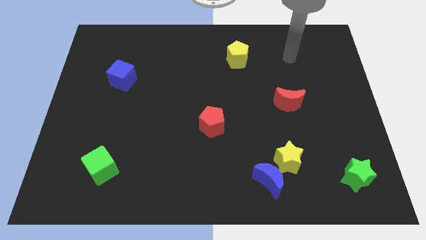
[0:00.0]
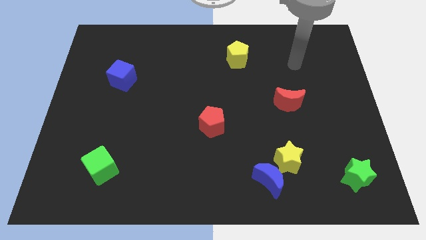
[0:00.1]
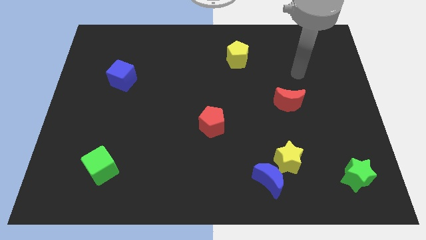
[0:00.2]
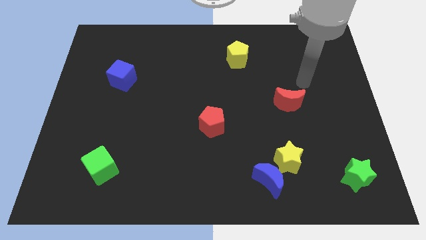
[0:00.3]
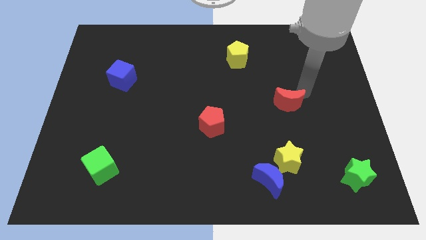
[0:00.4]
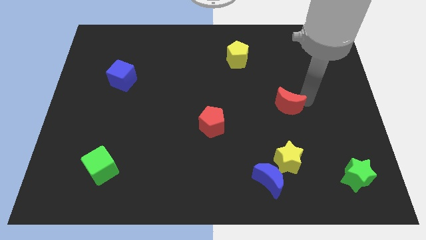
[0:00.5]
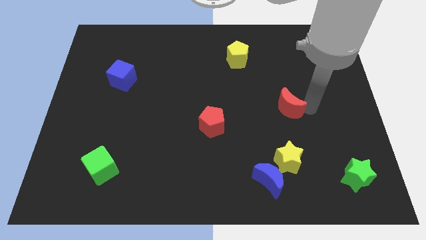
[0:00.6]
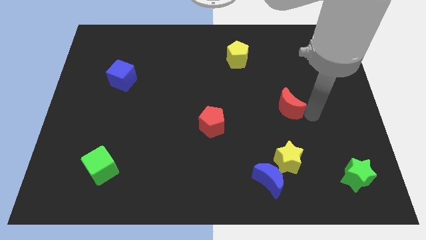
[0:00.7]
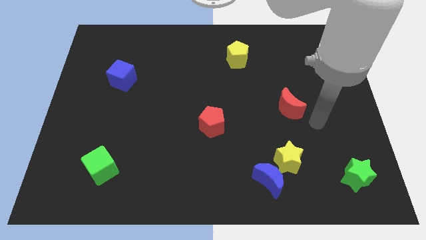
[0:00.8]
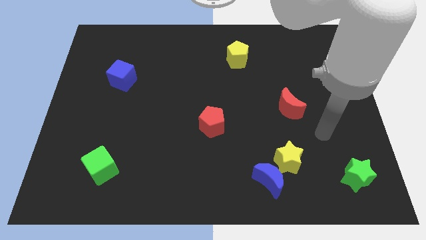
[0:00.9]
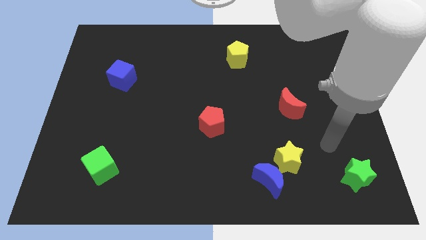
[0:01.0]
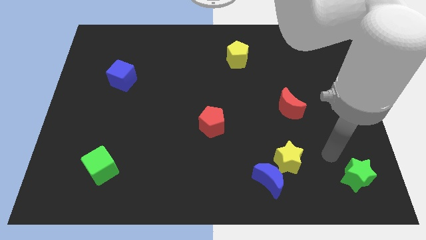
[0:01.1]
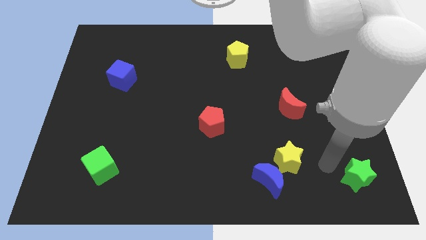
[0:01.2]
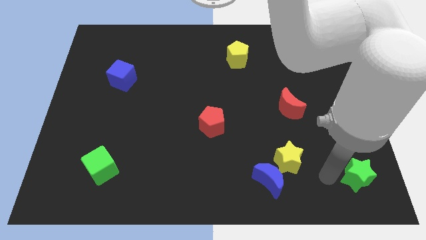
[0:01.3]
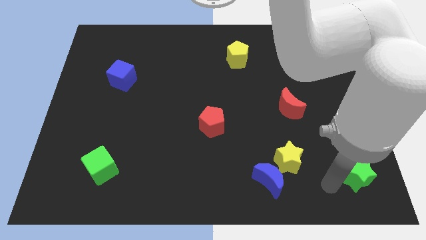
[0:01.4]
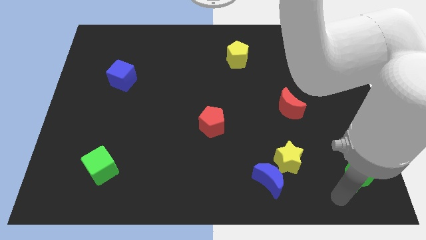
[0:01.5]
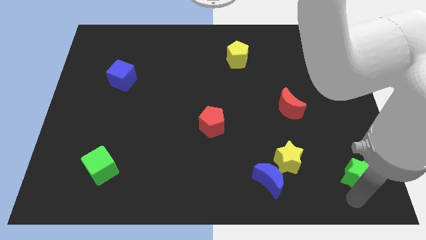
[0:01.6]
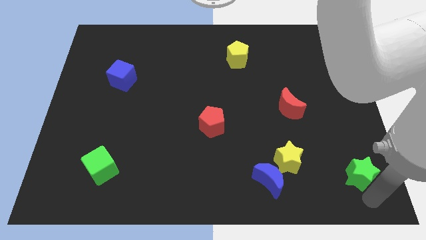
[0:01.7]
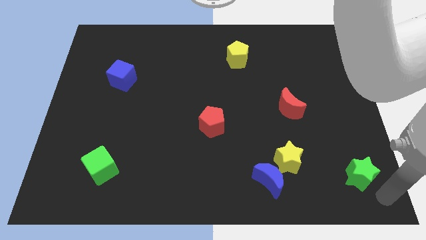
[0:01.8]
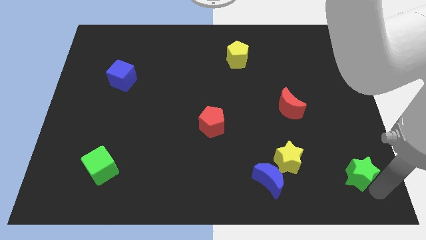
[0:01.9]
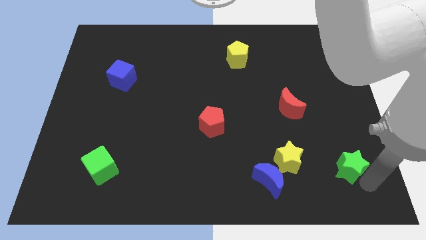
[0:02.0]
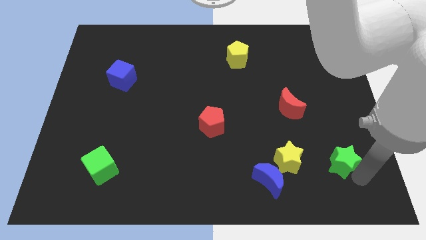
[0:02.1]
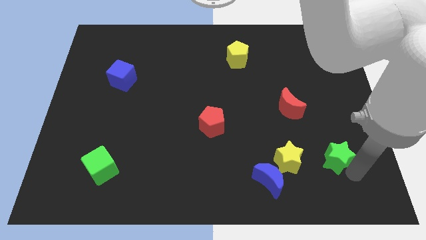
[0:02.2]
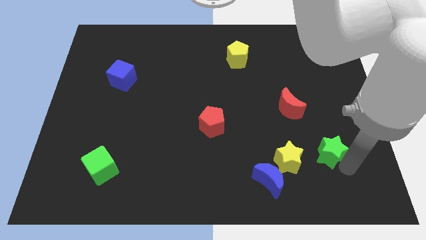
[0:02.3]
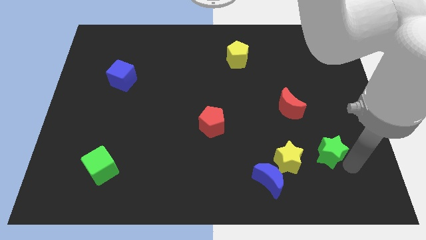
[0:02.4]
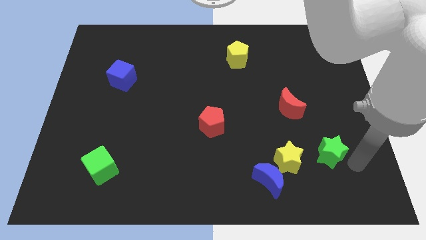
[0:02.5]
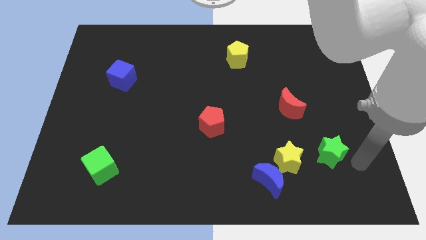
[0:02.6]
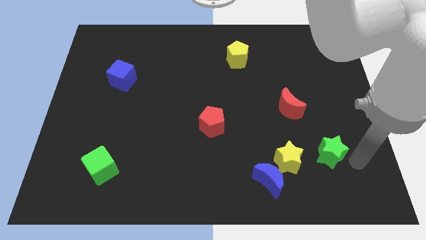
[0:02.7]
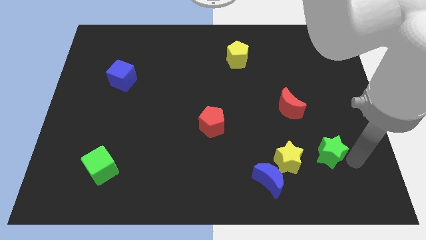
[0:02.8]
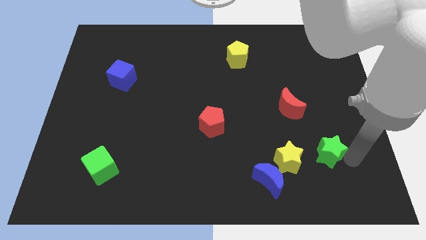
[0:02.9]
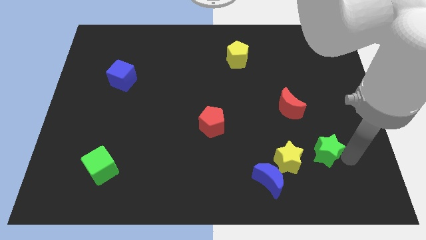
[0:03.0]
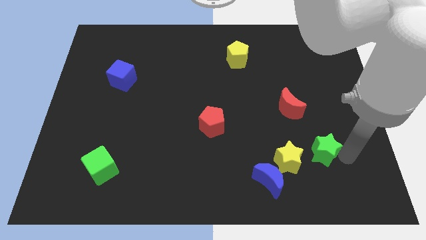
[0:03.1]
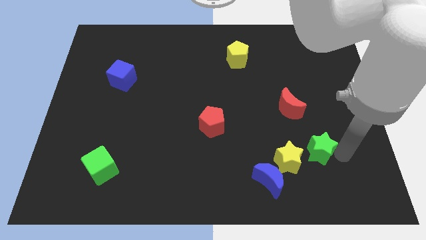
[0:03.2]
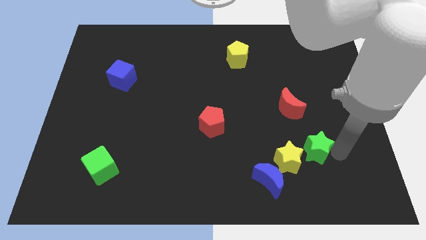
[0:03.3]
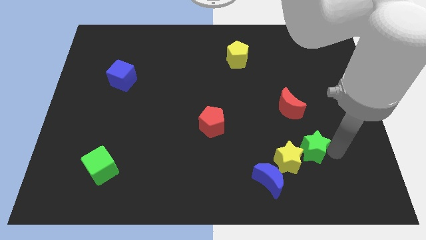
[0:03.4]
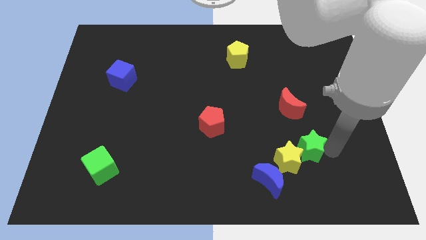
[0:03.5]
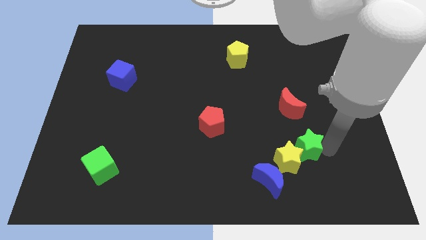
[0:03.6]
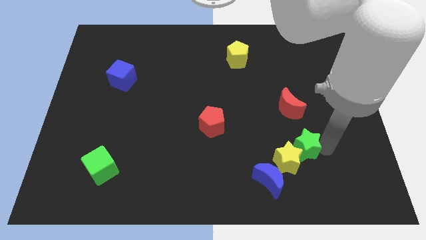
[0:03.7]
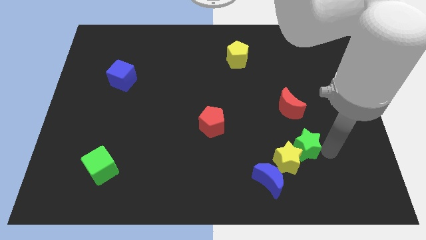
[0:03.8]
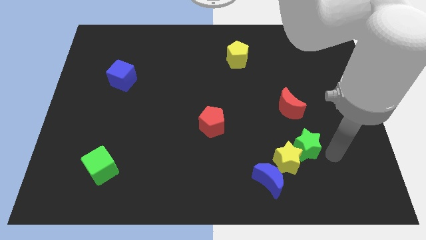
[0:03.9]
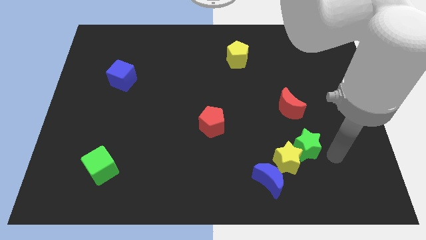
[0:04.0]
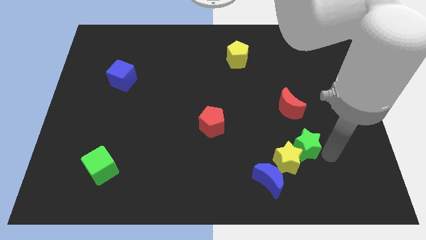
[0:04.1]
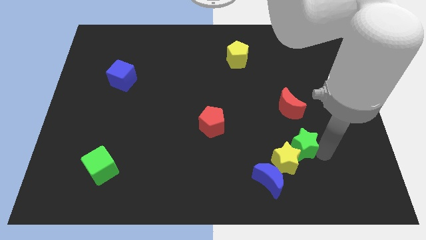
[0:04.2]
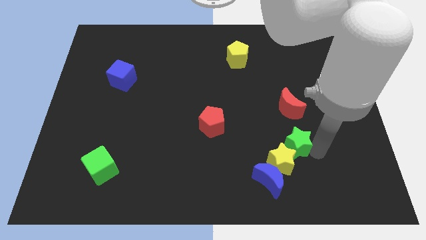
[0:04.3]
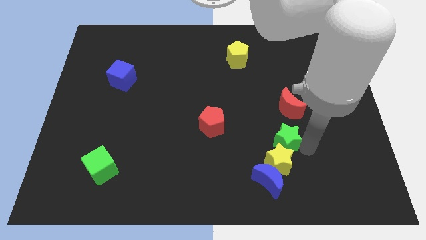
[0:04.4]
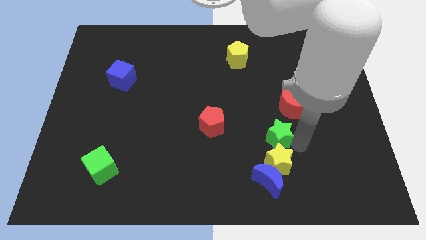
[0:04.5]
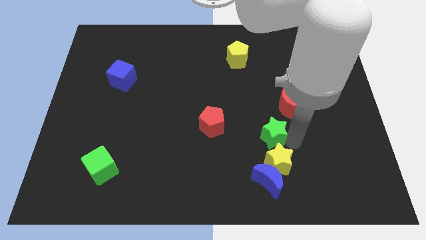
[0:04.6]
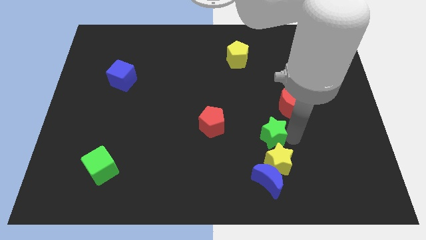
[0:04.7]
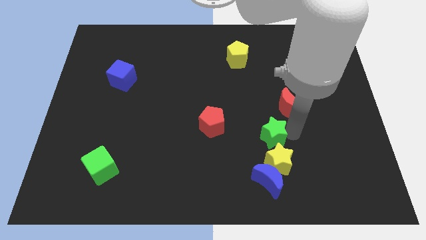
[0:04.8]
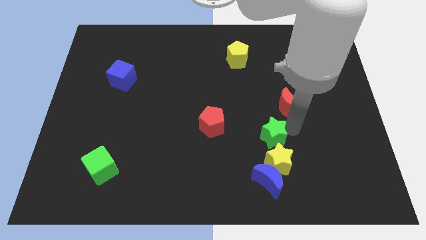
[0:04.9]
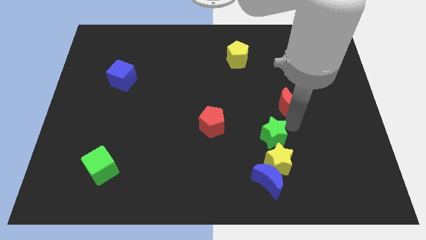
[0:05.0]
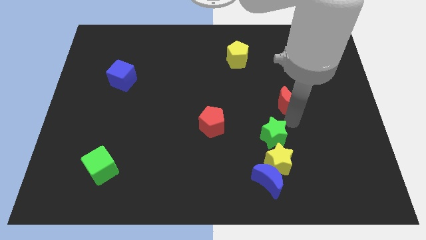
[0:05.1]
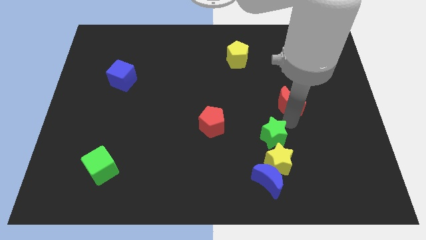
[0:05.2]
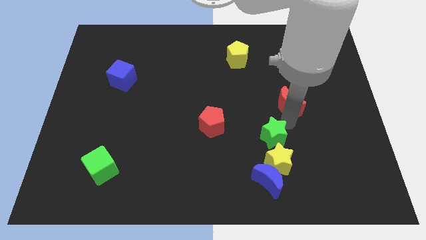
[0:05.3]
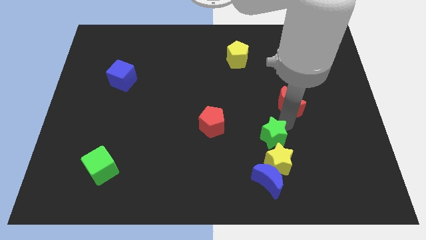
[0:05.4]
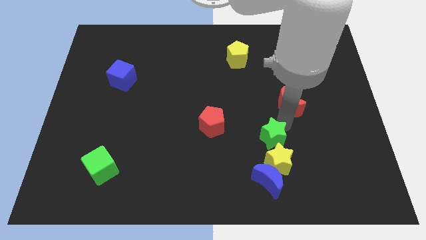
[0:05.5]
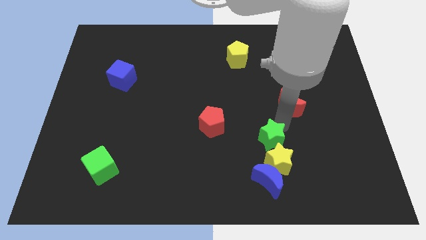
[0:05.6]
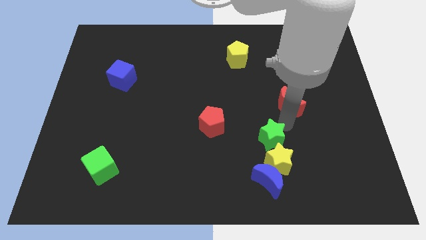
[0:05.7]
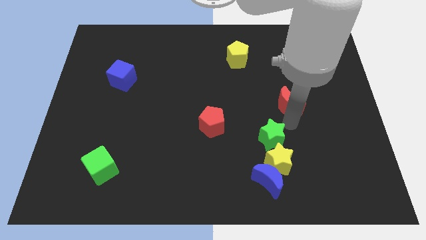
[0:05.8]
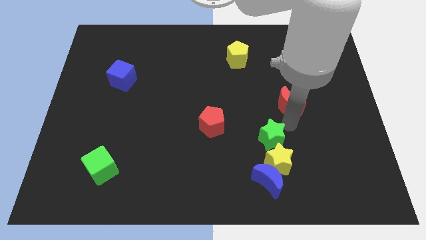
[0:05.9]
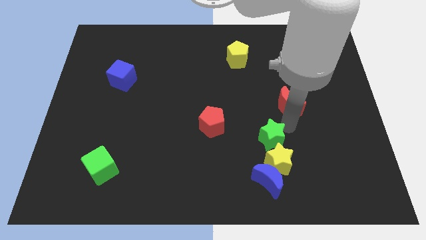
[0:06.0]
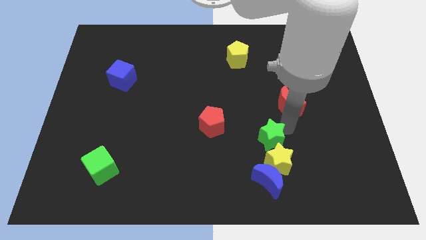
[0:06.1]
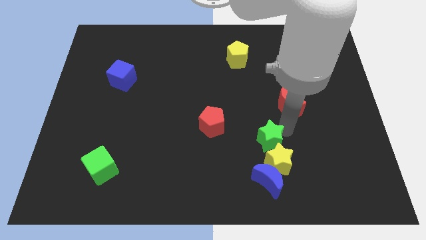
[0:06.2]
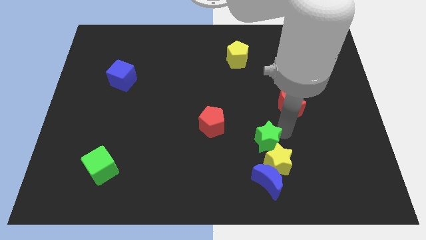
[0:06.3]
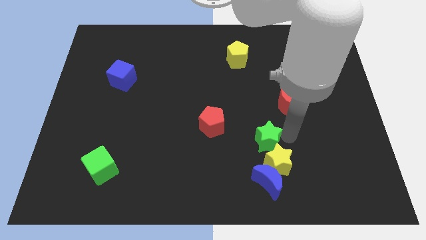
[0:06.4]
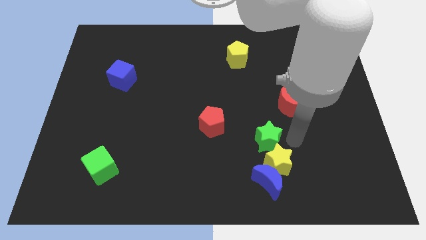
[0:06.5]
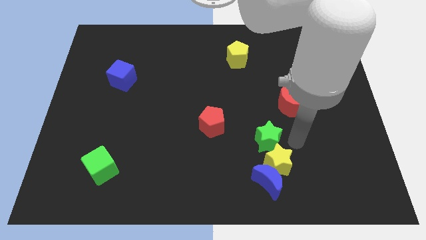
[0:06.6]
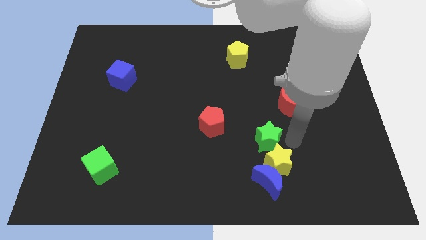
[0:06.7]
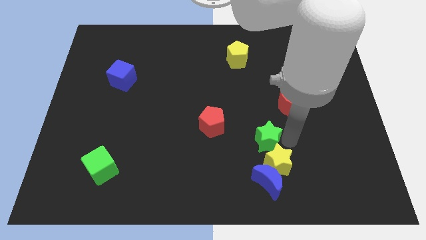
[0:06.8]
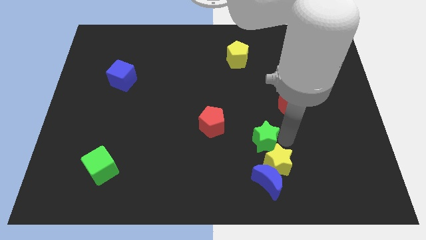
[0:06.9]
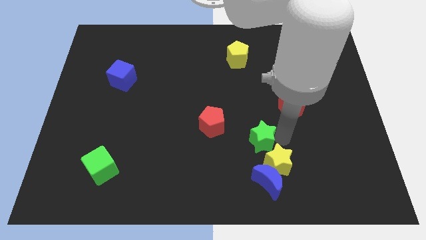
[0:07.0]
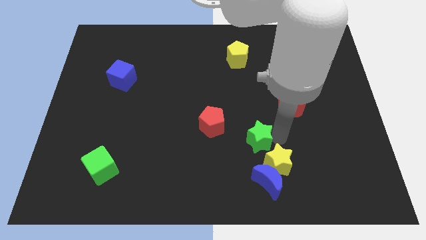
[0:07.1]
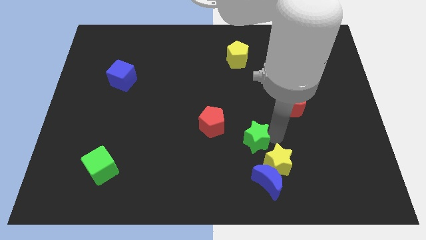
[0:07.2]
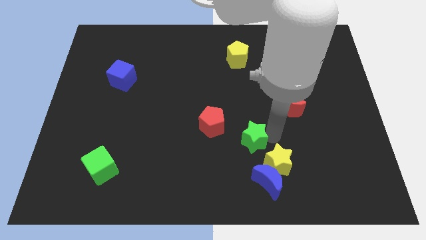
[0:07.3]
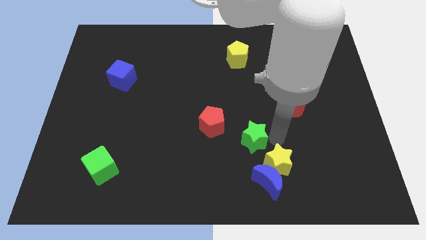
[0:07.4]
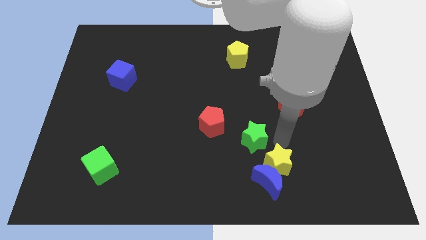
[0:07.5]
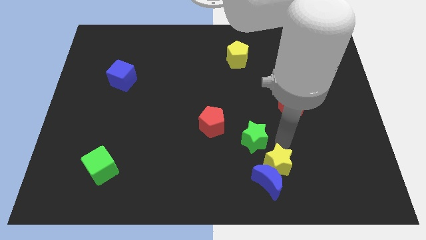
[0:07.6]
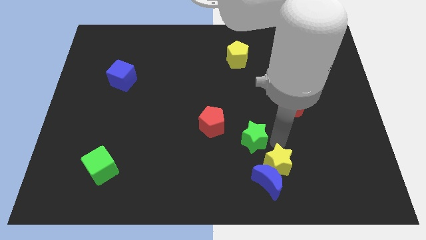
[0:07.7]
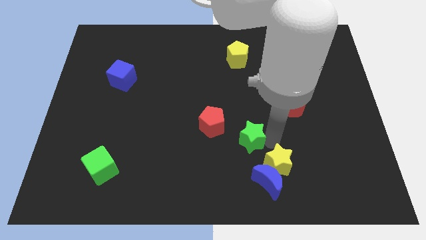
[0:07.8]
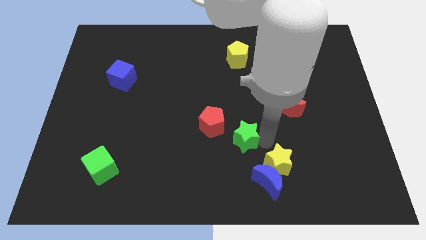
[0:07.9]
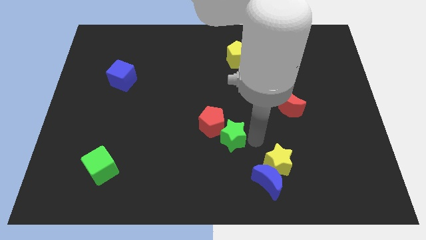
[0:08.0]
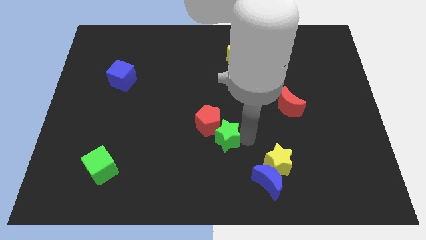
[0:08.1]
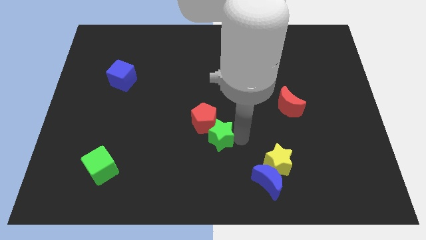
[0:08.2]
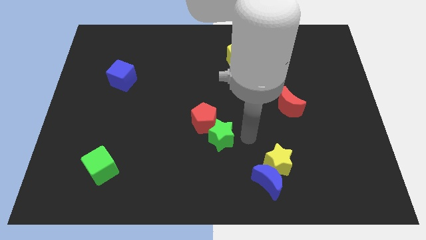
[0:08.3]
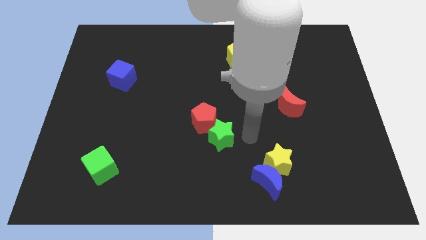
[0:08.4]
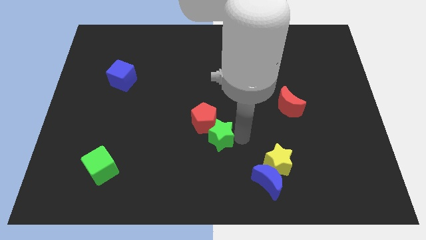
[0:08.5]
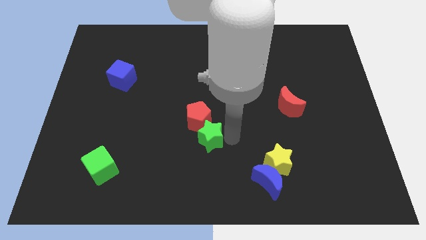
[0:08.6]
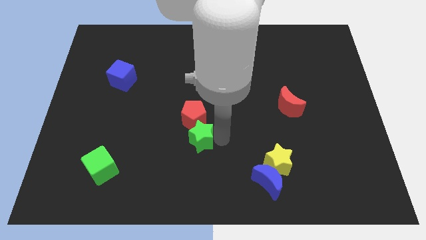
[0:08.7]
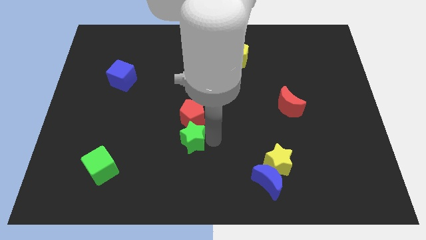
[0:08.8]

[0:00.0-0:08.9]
put the green star diagonally down and to the left of the red pentagon
